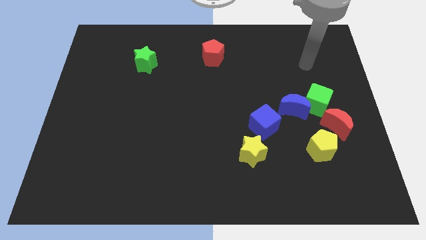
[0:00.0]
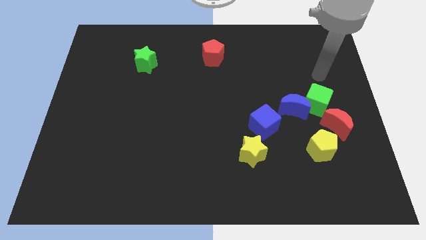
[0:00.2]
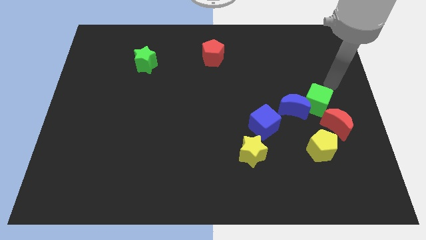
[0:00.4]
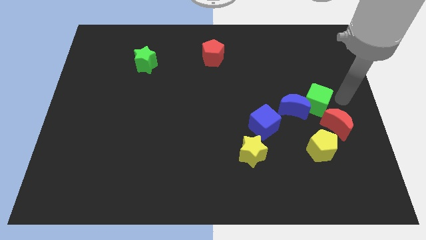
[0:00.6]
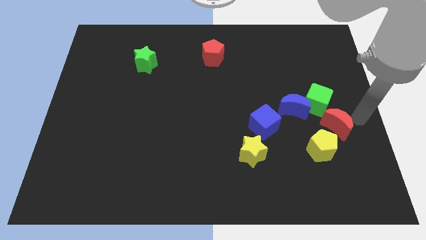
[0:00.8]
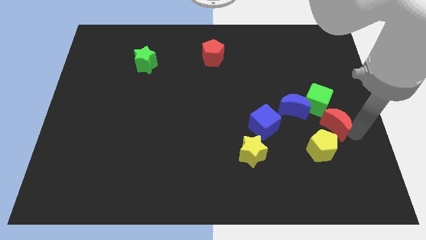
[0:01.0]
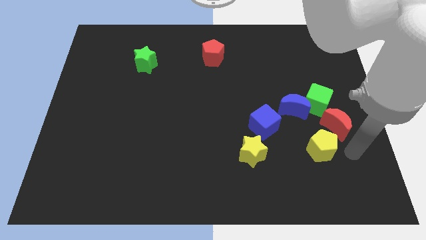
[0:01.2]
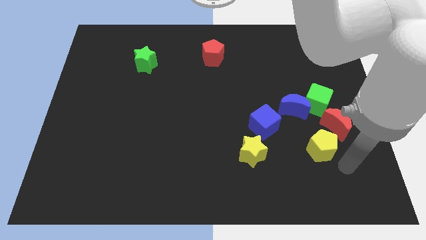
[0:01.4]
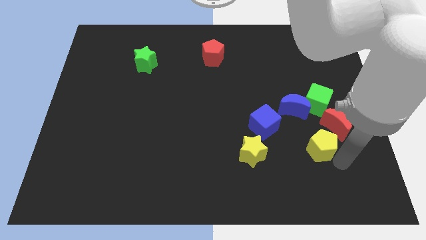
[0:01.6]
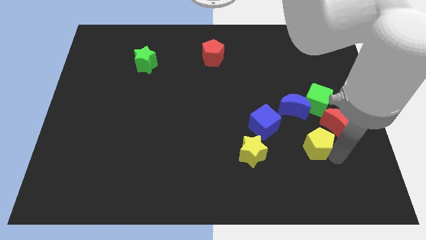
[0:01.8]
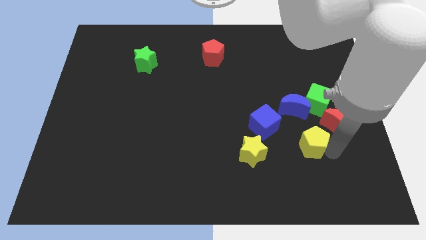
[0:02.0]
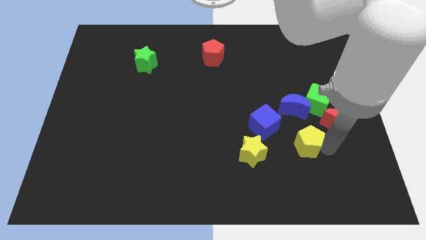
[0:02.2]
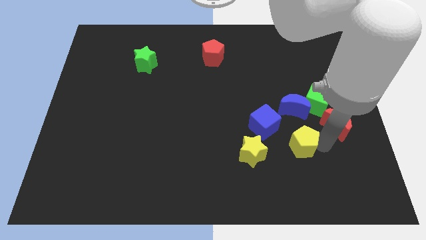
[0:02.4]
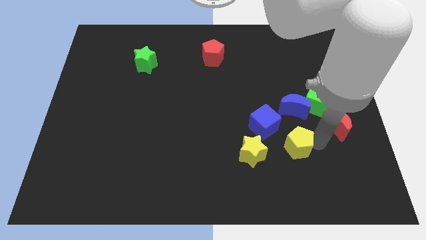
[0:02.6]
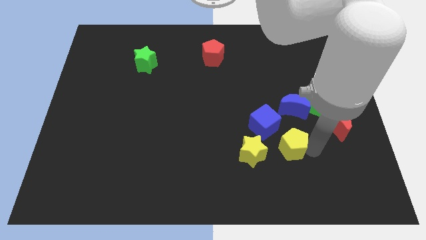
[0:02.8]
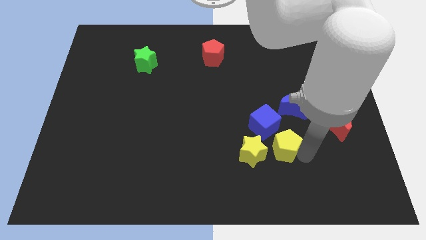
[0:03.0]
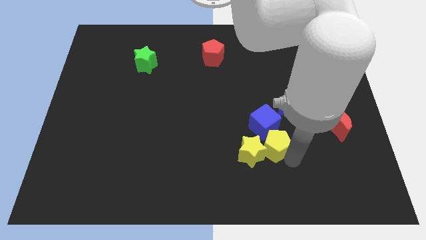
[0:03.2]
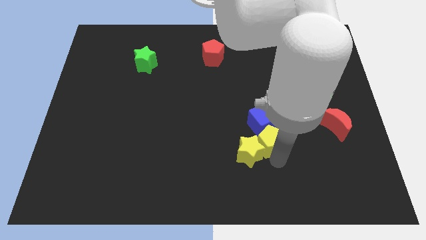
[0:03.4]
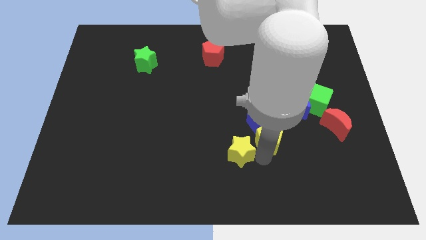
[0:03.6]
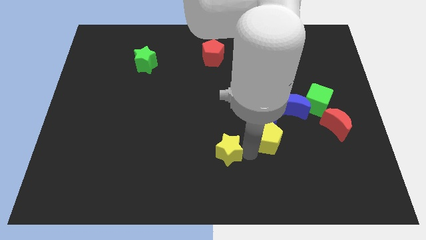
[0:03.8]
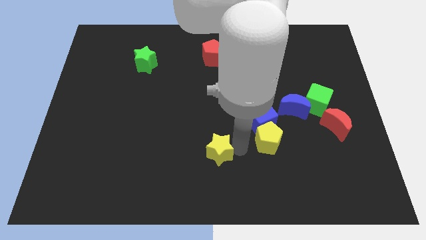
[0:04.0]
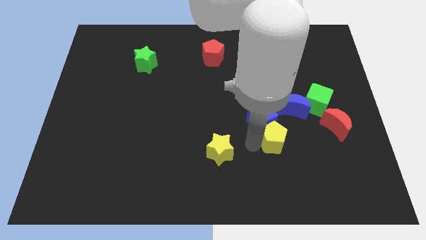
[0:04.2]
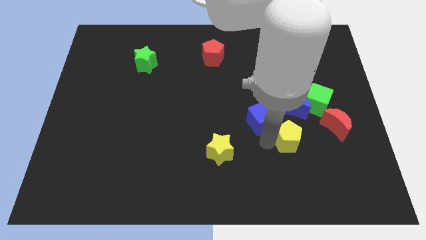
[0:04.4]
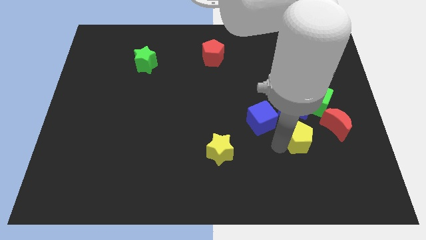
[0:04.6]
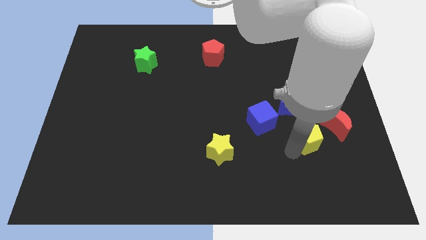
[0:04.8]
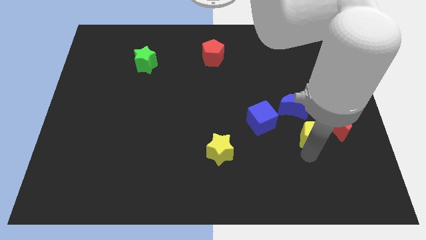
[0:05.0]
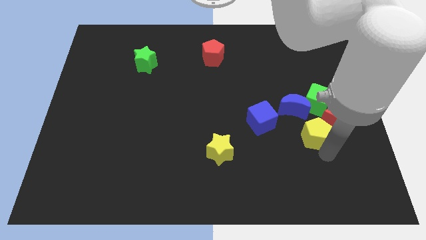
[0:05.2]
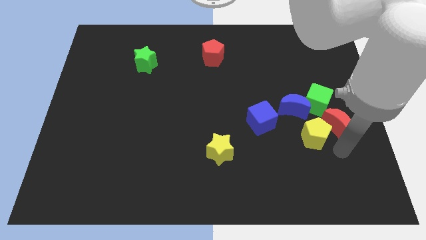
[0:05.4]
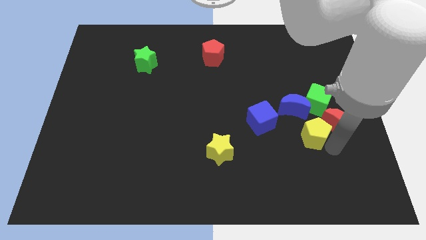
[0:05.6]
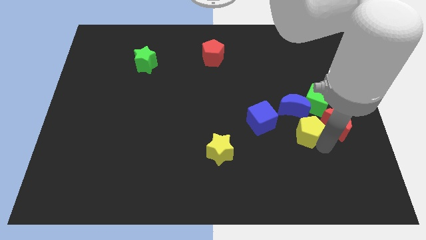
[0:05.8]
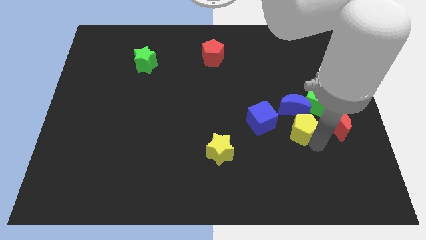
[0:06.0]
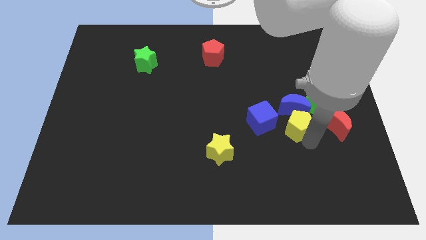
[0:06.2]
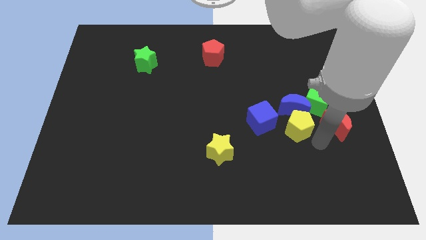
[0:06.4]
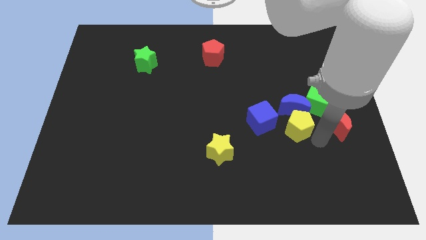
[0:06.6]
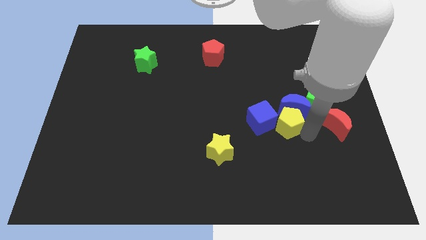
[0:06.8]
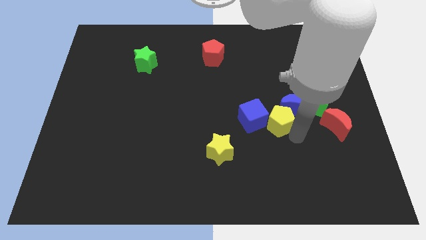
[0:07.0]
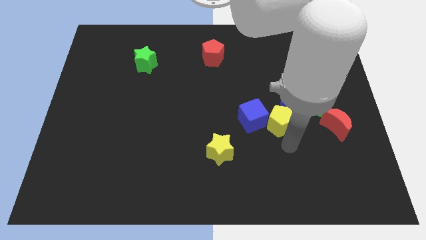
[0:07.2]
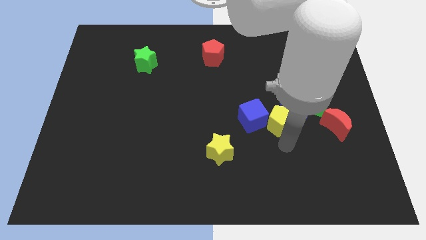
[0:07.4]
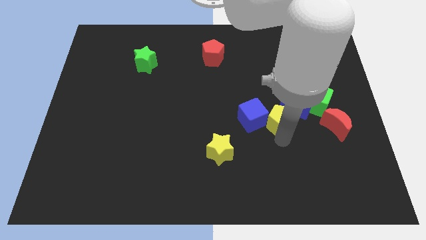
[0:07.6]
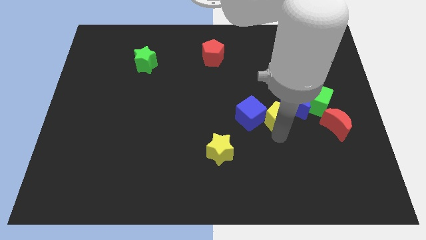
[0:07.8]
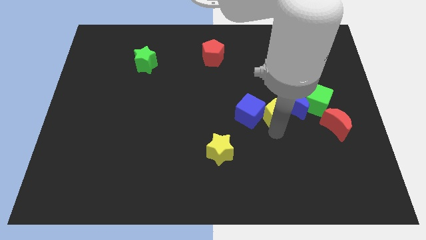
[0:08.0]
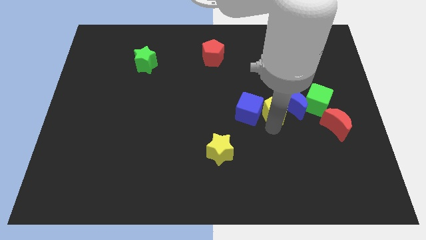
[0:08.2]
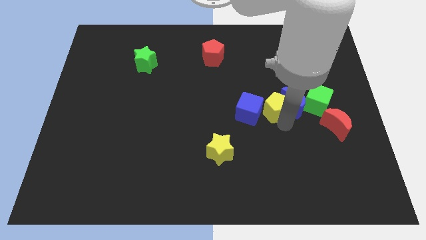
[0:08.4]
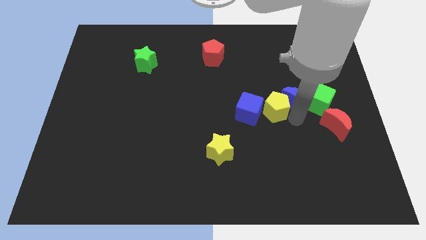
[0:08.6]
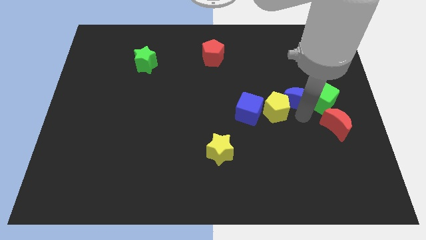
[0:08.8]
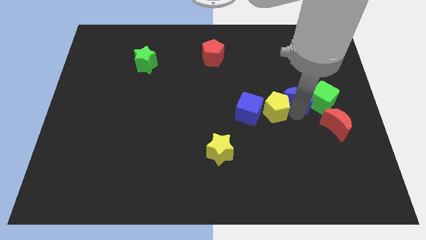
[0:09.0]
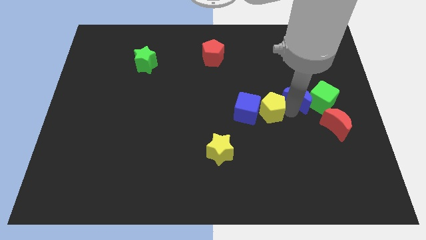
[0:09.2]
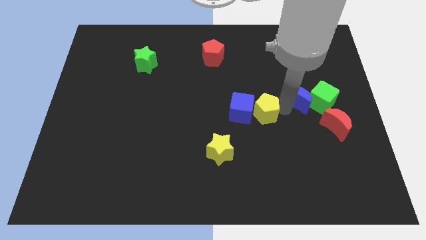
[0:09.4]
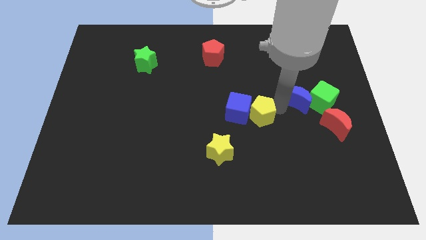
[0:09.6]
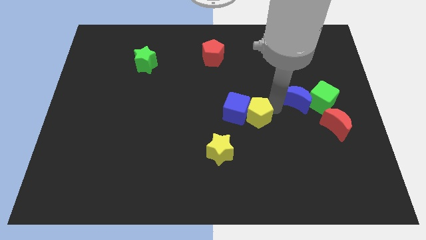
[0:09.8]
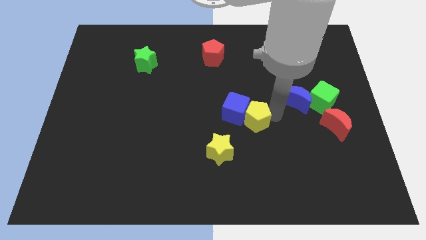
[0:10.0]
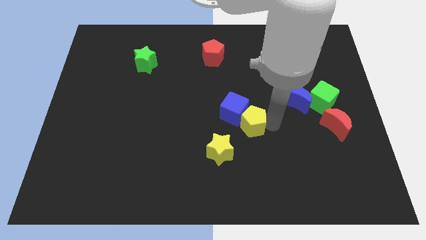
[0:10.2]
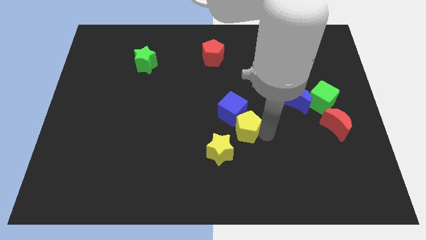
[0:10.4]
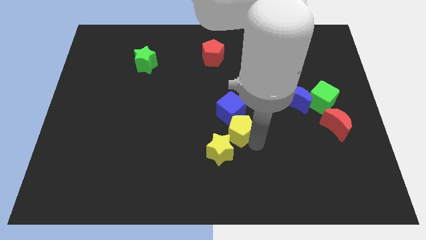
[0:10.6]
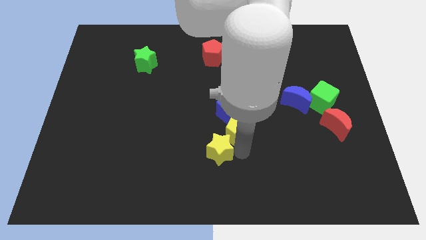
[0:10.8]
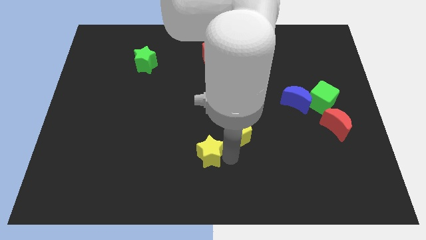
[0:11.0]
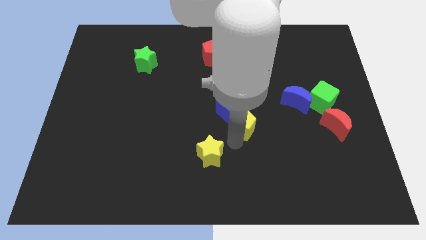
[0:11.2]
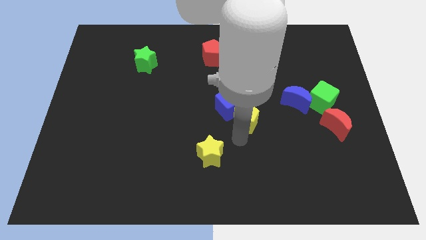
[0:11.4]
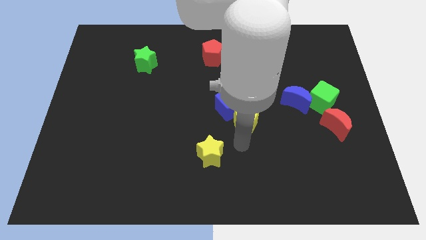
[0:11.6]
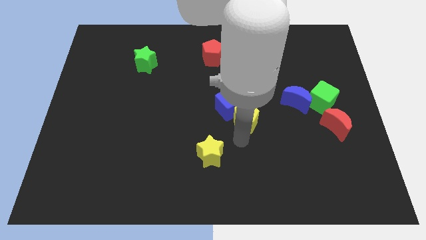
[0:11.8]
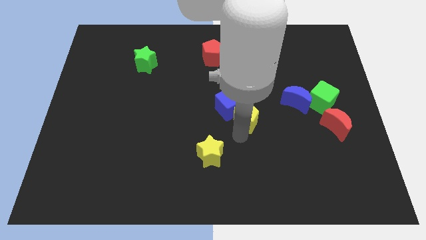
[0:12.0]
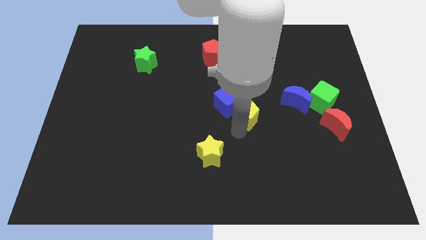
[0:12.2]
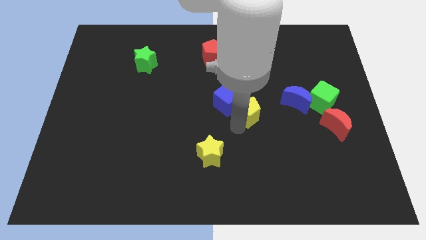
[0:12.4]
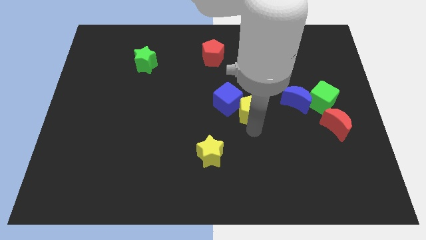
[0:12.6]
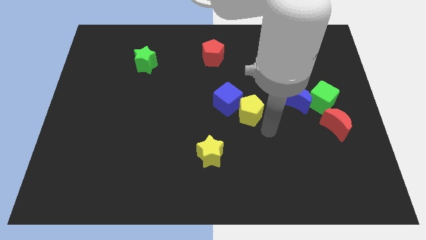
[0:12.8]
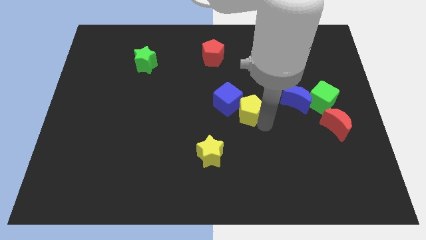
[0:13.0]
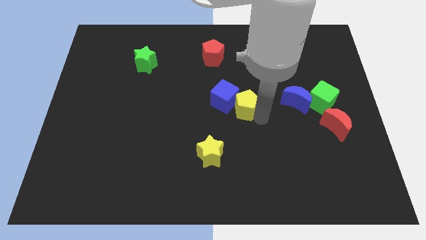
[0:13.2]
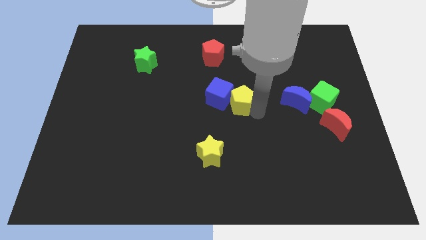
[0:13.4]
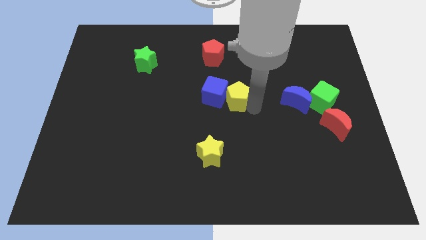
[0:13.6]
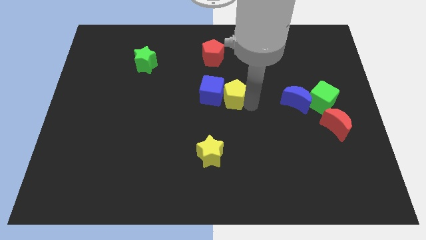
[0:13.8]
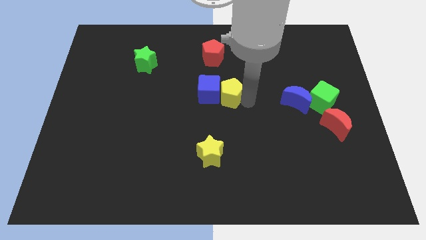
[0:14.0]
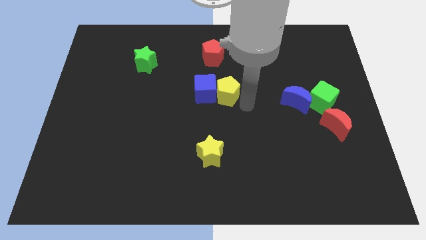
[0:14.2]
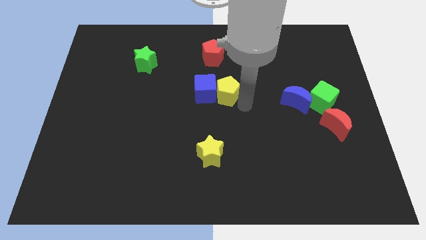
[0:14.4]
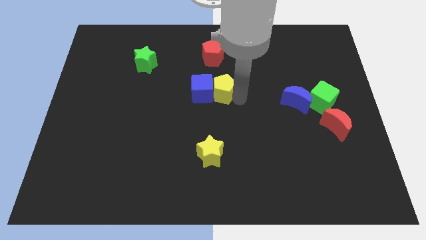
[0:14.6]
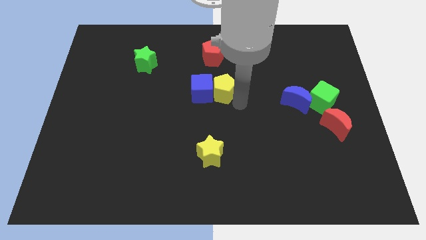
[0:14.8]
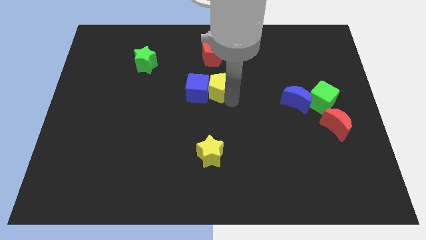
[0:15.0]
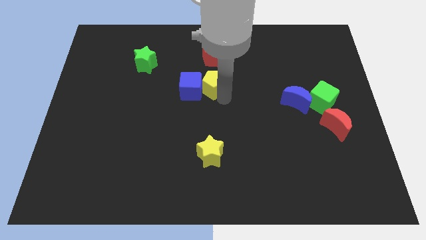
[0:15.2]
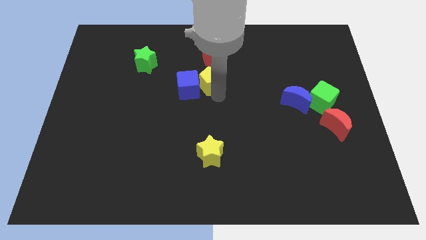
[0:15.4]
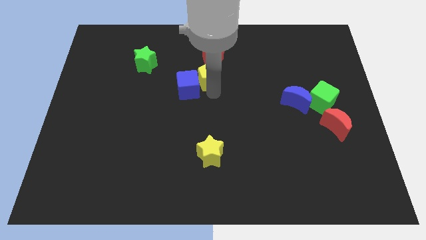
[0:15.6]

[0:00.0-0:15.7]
slide the yellow pentagon to the bottom left of the red pentagon
